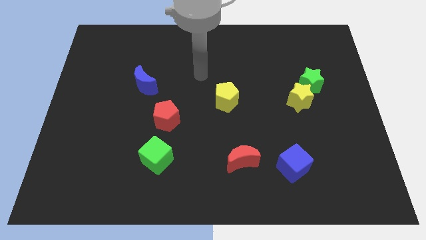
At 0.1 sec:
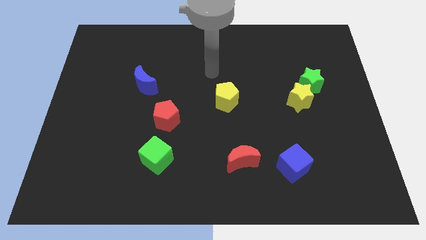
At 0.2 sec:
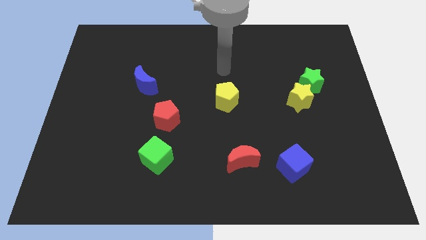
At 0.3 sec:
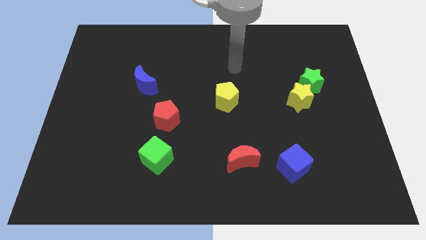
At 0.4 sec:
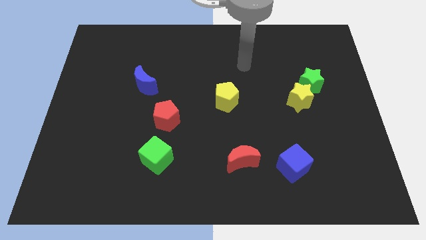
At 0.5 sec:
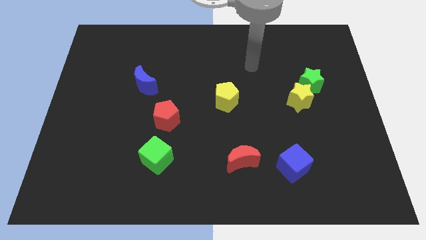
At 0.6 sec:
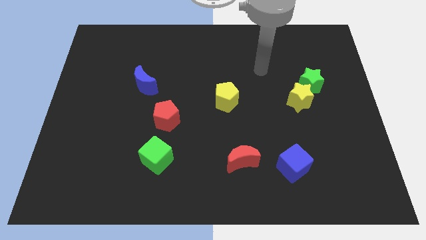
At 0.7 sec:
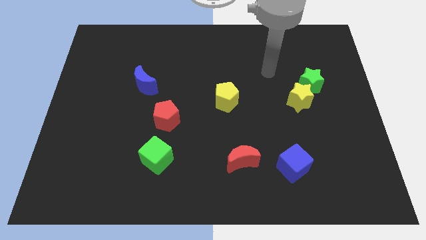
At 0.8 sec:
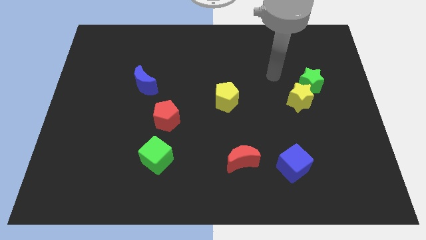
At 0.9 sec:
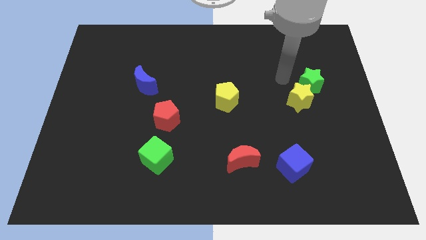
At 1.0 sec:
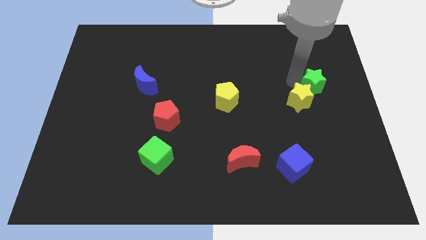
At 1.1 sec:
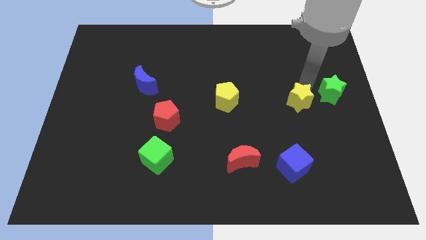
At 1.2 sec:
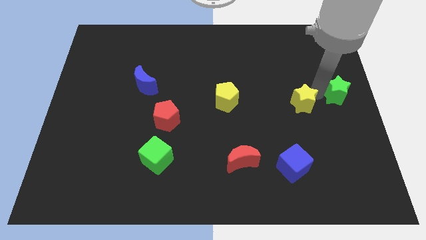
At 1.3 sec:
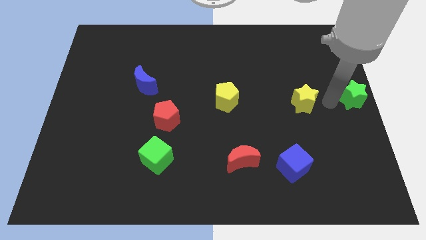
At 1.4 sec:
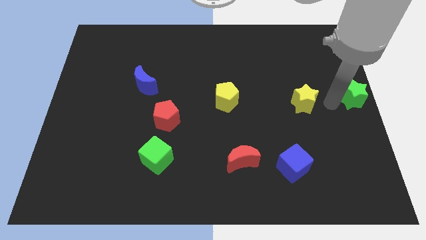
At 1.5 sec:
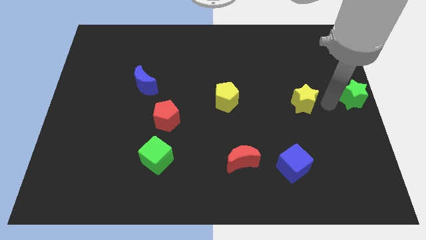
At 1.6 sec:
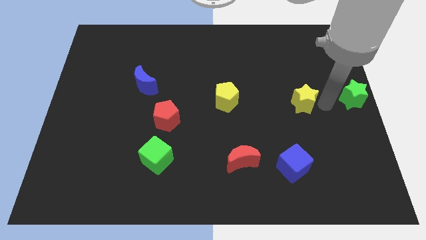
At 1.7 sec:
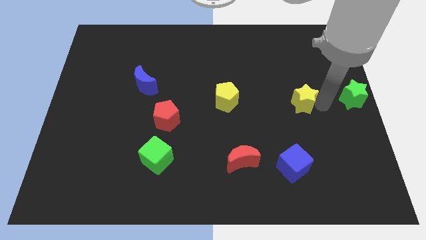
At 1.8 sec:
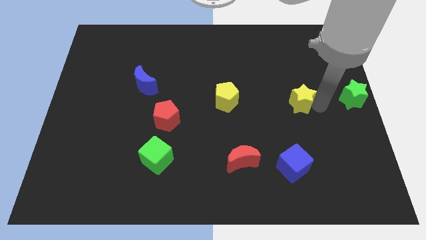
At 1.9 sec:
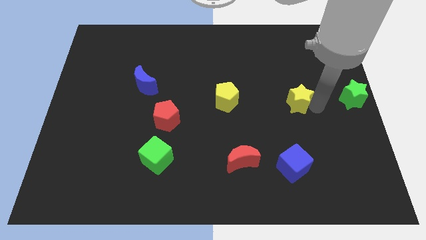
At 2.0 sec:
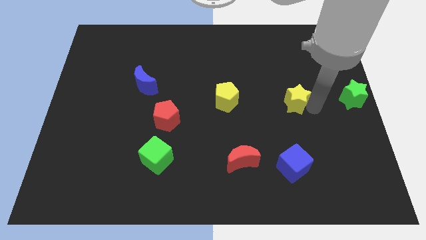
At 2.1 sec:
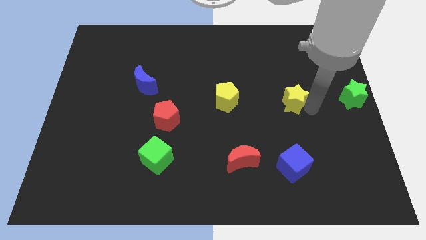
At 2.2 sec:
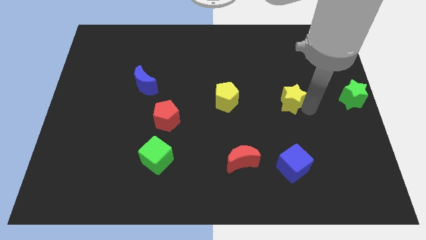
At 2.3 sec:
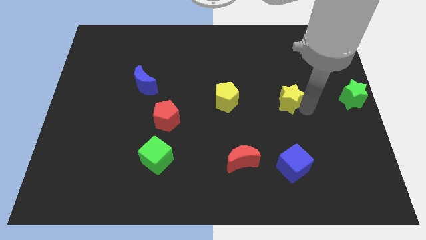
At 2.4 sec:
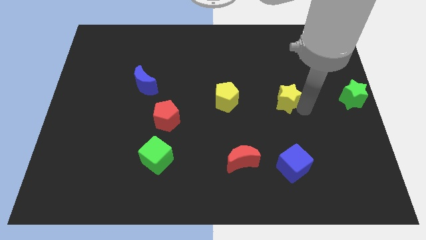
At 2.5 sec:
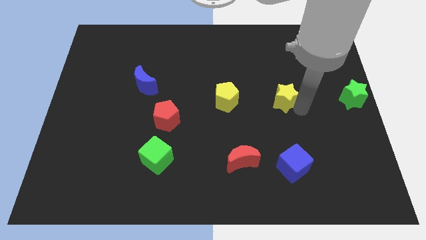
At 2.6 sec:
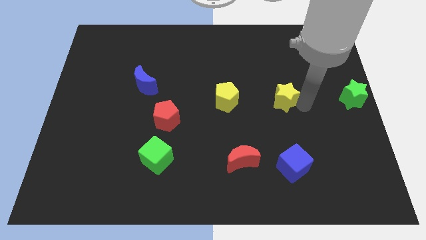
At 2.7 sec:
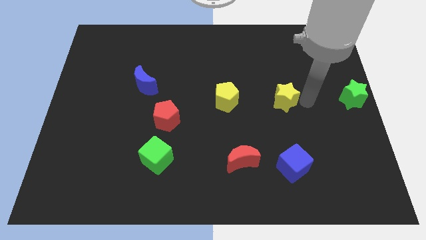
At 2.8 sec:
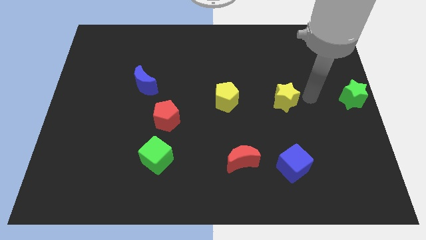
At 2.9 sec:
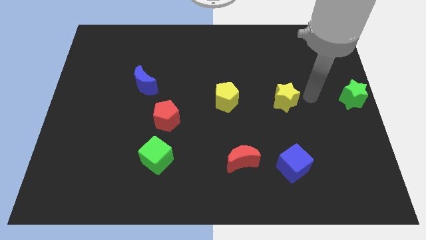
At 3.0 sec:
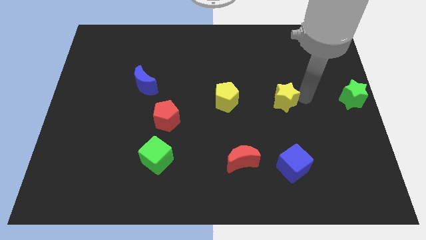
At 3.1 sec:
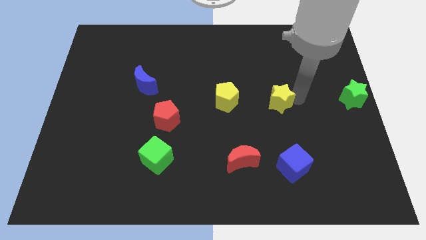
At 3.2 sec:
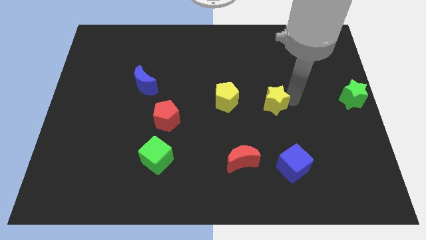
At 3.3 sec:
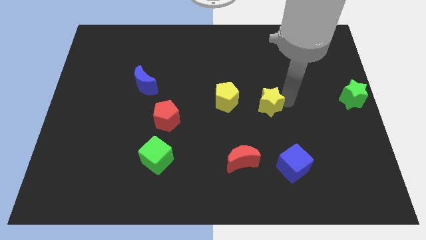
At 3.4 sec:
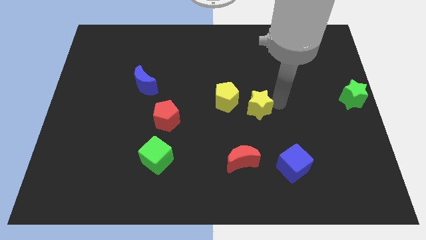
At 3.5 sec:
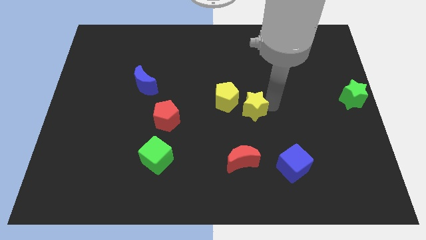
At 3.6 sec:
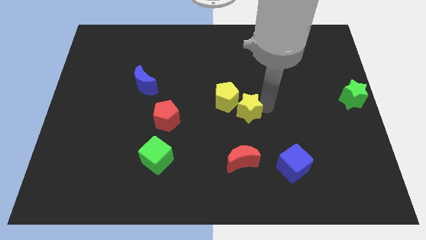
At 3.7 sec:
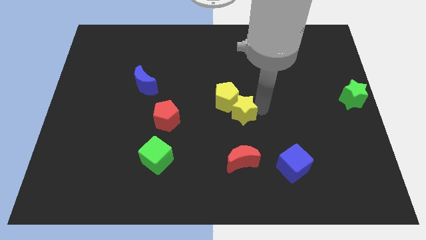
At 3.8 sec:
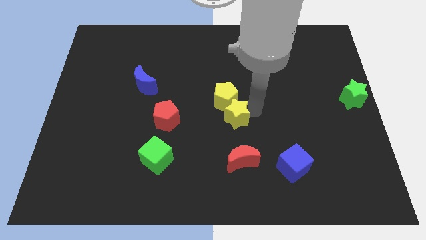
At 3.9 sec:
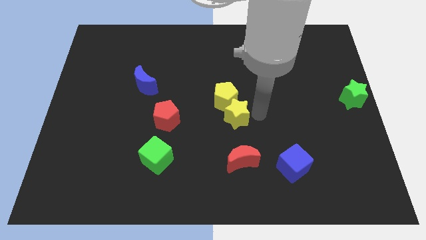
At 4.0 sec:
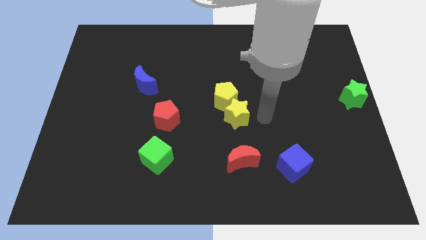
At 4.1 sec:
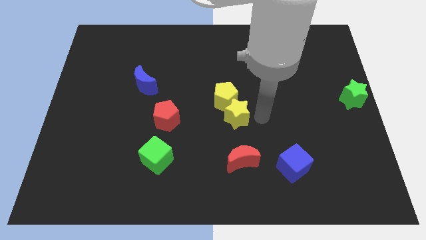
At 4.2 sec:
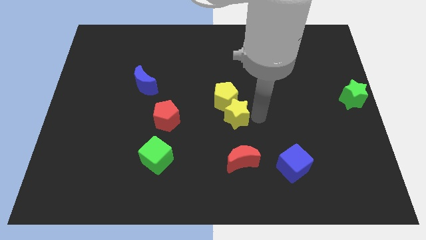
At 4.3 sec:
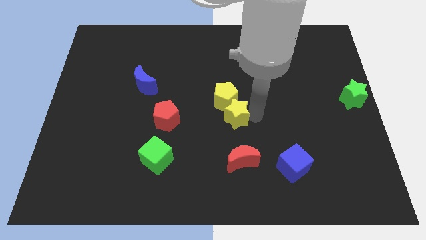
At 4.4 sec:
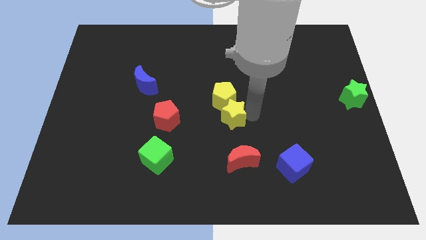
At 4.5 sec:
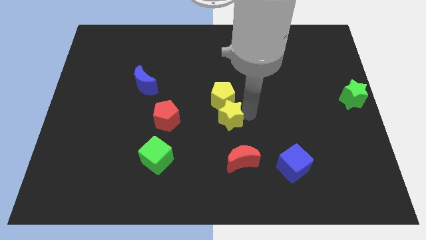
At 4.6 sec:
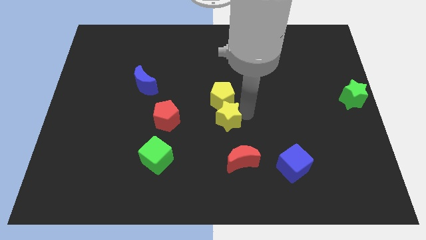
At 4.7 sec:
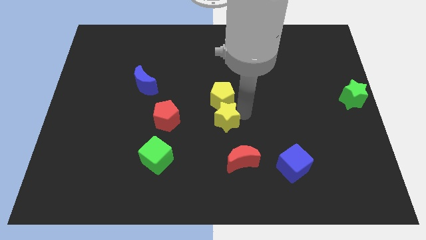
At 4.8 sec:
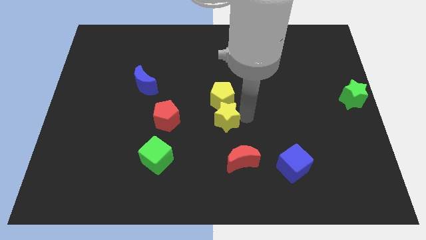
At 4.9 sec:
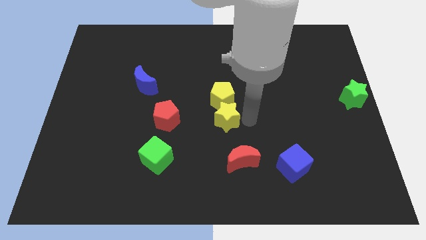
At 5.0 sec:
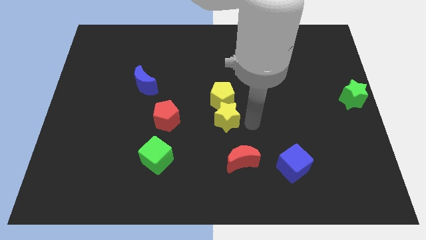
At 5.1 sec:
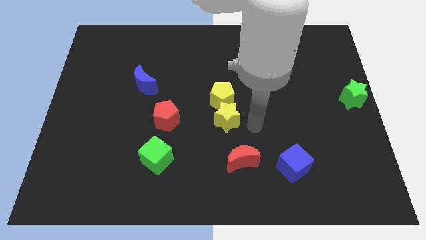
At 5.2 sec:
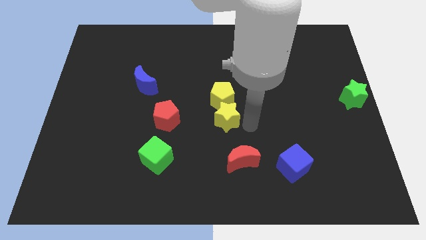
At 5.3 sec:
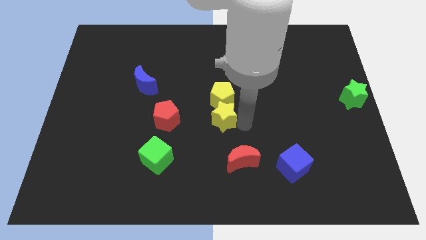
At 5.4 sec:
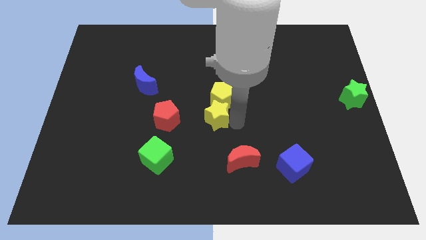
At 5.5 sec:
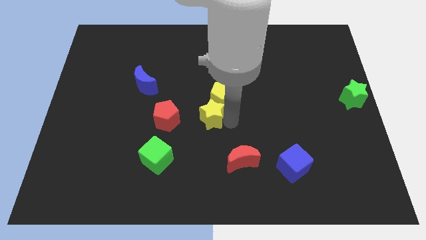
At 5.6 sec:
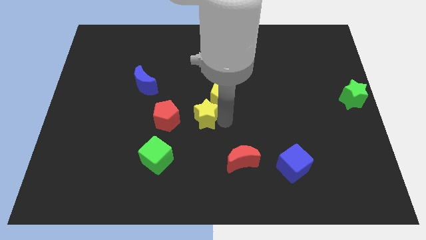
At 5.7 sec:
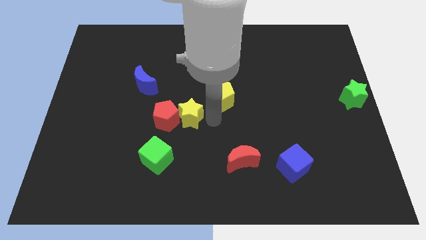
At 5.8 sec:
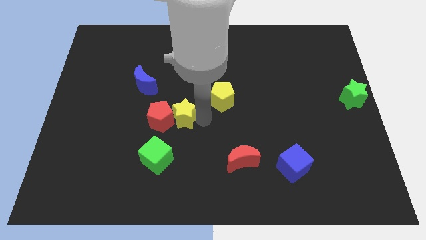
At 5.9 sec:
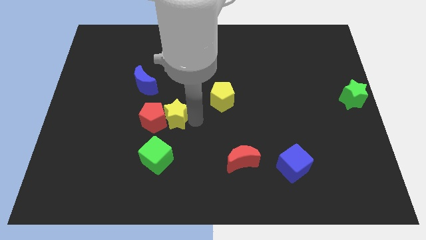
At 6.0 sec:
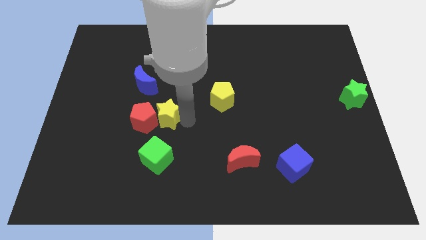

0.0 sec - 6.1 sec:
move the yellow star to the bottom right side of the blue moon

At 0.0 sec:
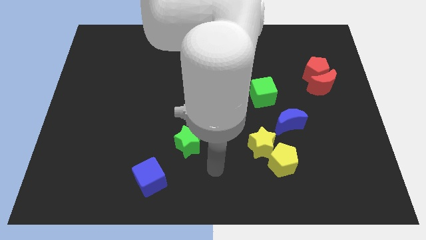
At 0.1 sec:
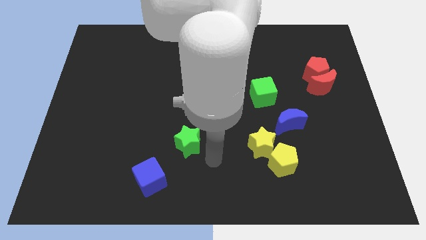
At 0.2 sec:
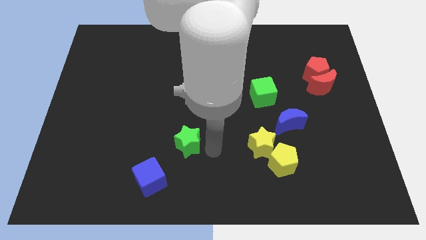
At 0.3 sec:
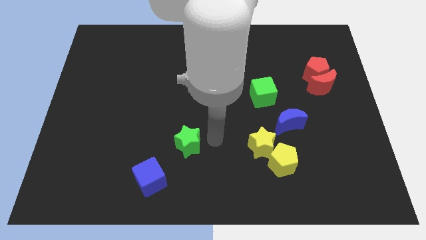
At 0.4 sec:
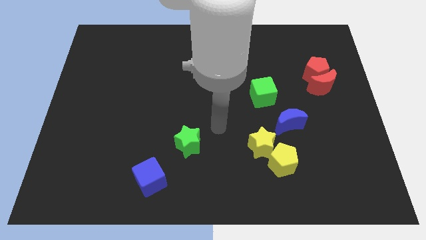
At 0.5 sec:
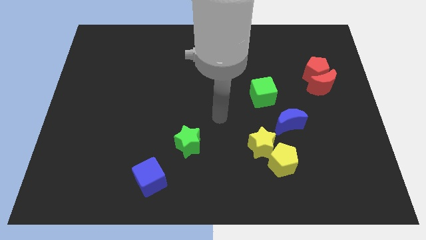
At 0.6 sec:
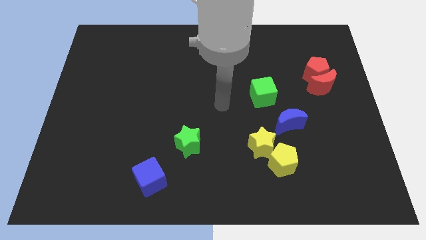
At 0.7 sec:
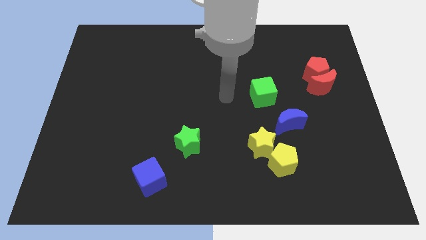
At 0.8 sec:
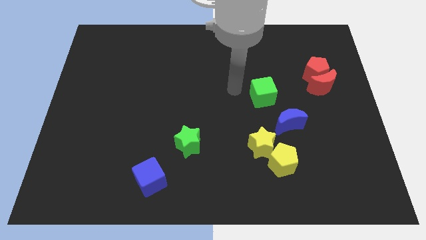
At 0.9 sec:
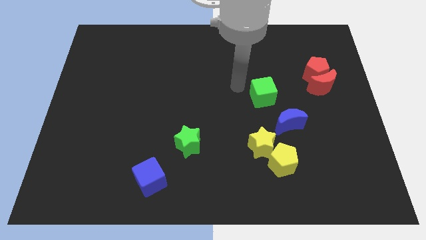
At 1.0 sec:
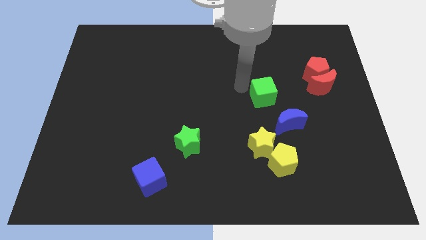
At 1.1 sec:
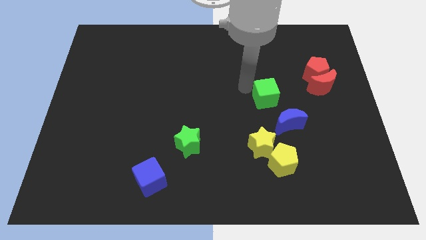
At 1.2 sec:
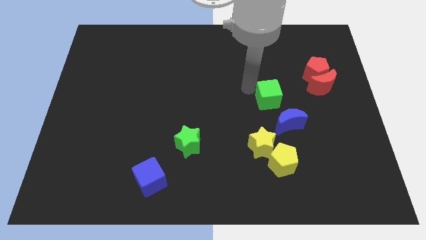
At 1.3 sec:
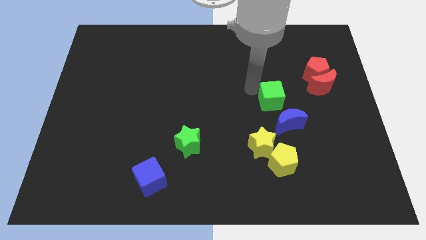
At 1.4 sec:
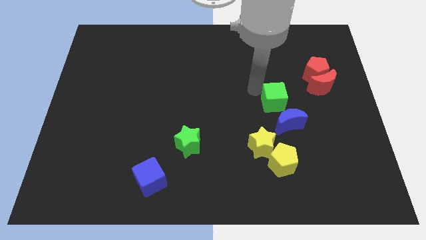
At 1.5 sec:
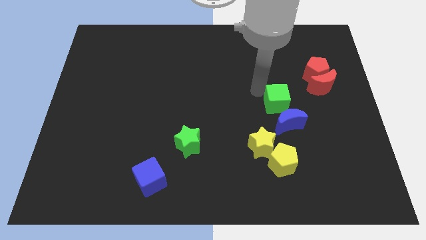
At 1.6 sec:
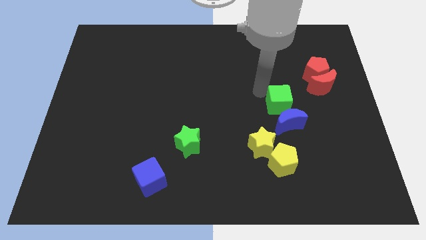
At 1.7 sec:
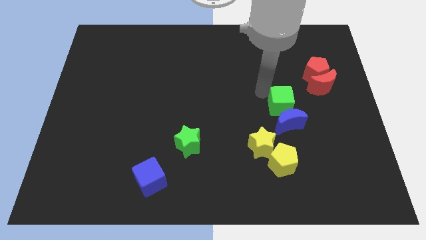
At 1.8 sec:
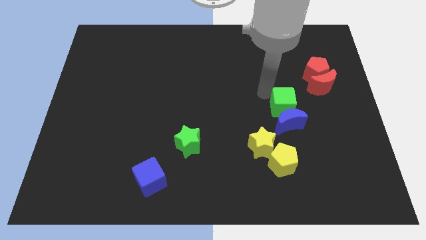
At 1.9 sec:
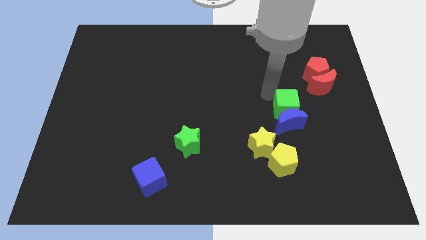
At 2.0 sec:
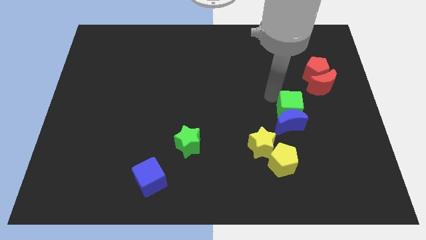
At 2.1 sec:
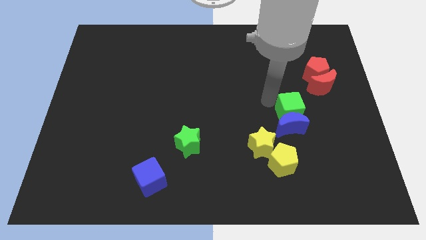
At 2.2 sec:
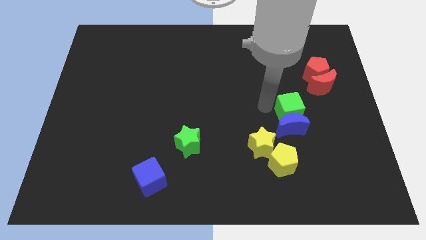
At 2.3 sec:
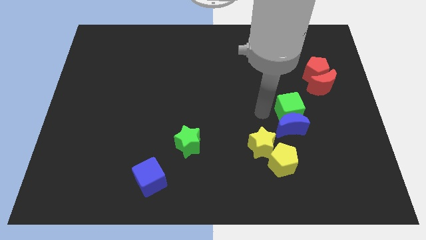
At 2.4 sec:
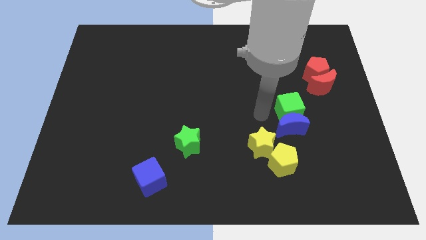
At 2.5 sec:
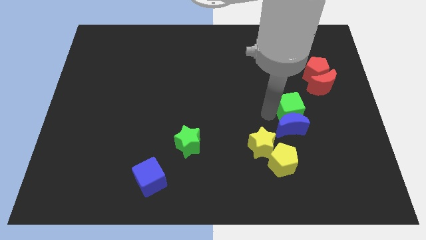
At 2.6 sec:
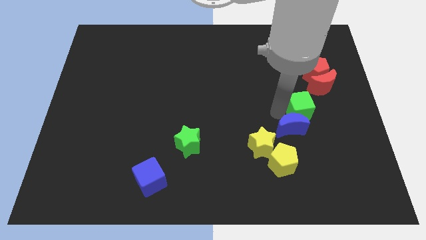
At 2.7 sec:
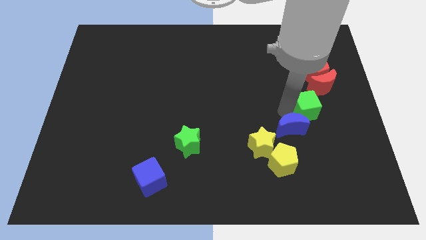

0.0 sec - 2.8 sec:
put the green cube to the bottom side of the red pentagon
